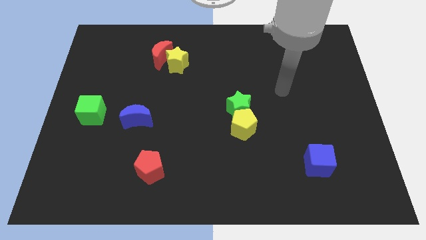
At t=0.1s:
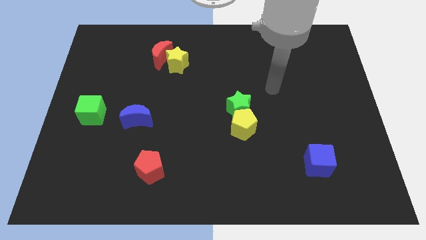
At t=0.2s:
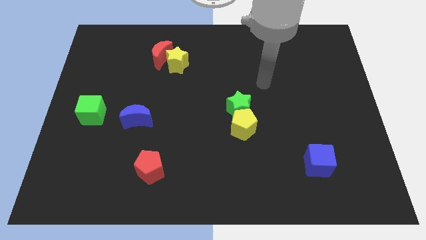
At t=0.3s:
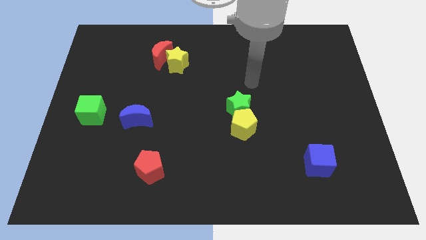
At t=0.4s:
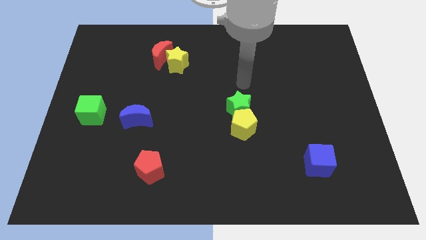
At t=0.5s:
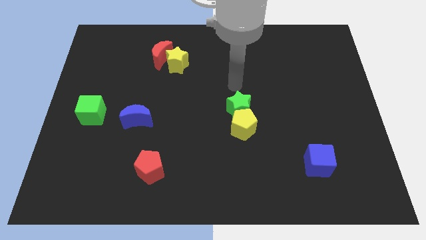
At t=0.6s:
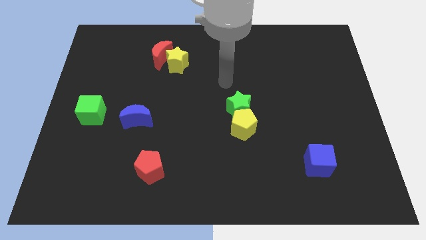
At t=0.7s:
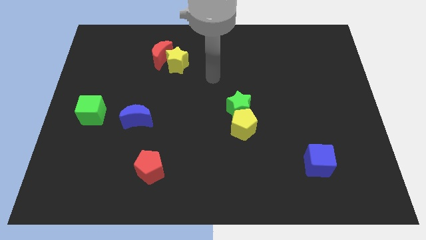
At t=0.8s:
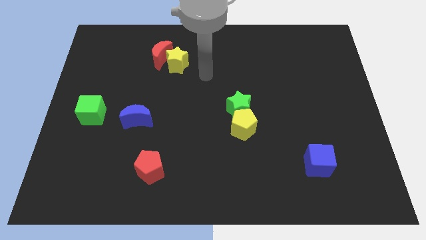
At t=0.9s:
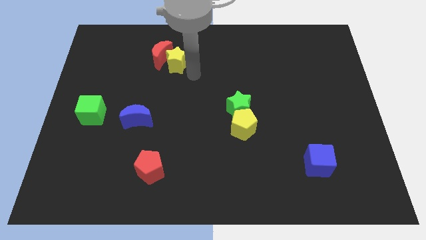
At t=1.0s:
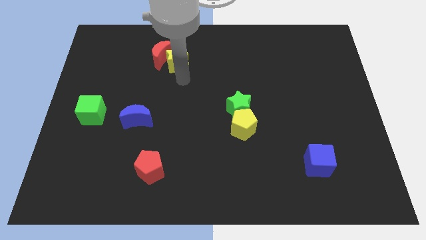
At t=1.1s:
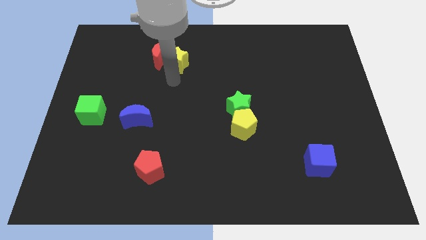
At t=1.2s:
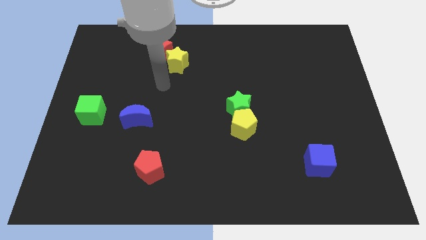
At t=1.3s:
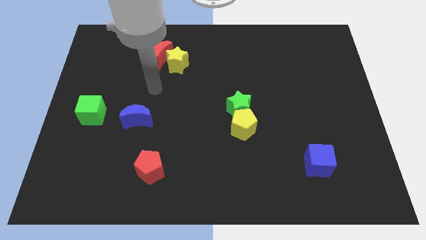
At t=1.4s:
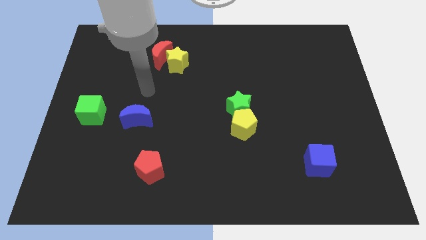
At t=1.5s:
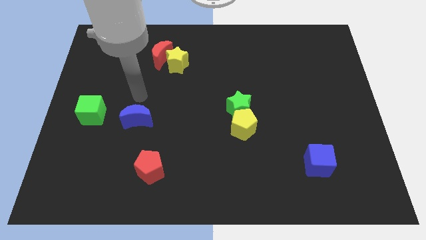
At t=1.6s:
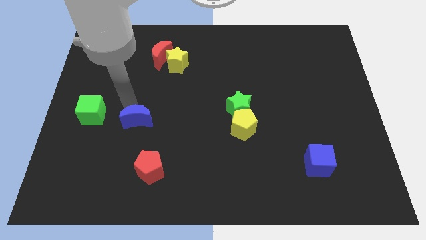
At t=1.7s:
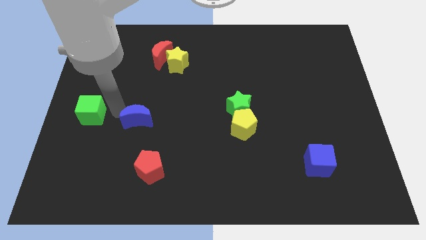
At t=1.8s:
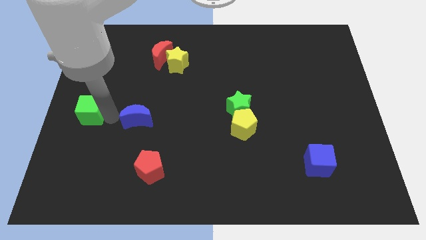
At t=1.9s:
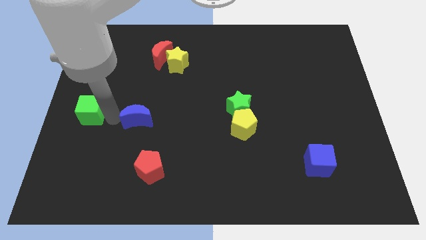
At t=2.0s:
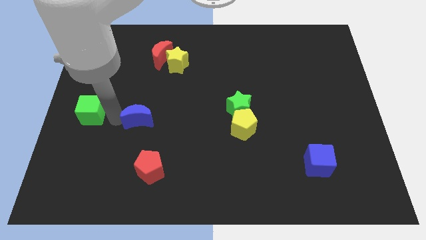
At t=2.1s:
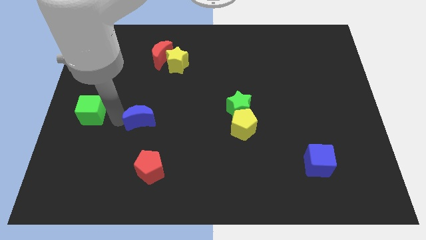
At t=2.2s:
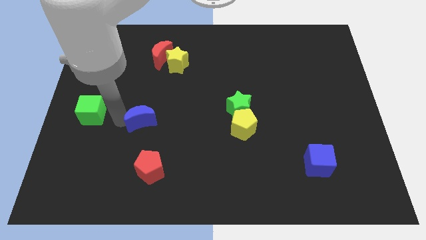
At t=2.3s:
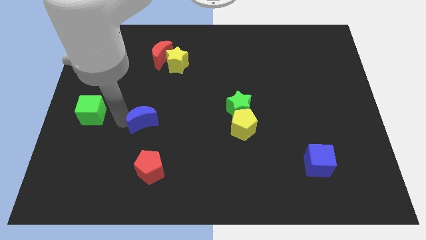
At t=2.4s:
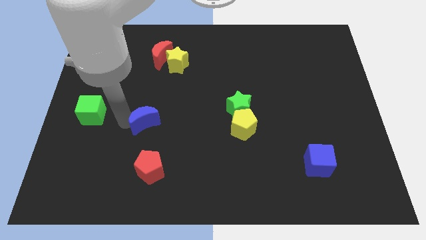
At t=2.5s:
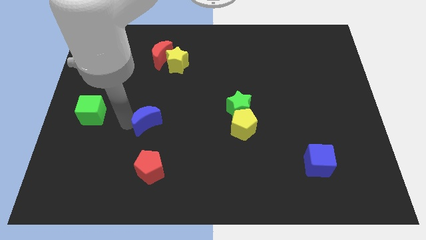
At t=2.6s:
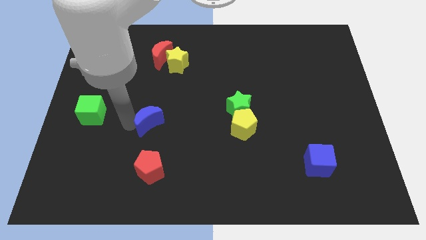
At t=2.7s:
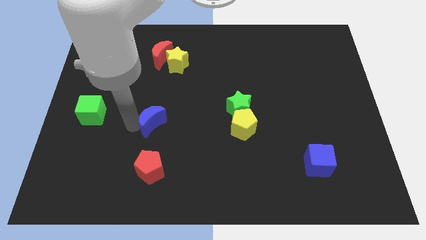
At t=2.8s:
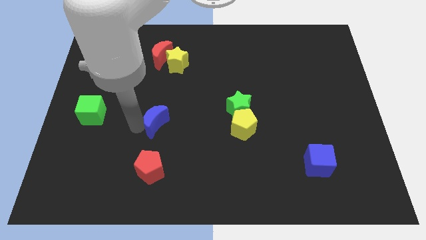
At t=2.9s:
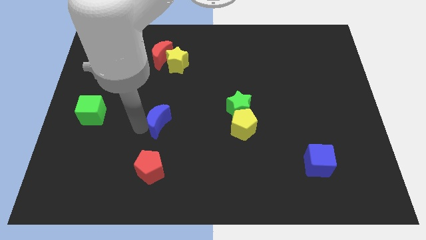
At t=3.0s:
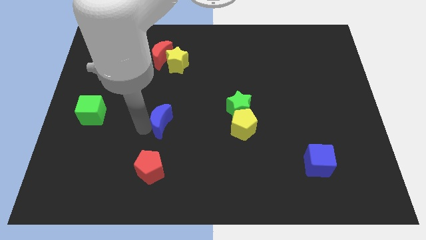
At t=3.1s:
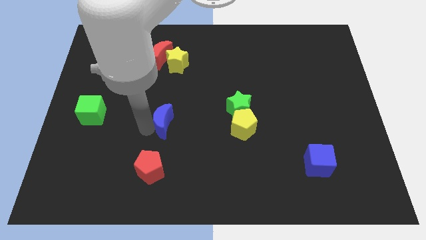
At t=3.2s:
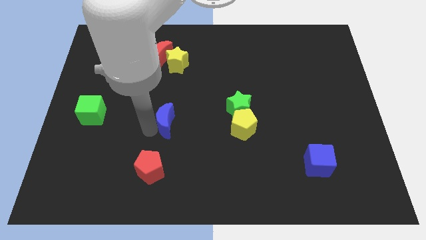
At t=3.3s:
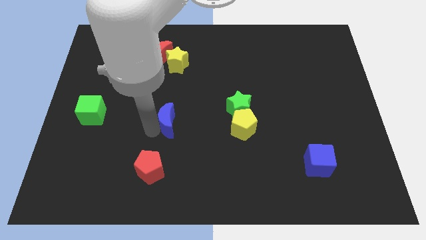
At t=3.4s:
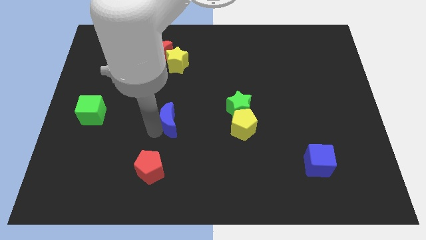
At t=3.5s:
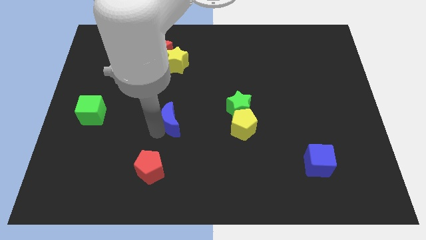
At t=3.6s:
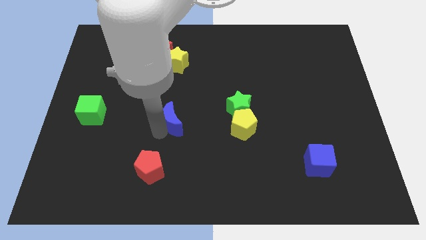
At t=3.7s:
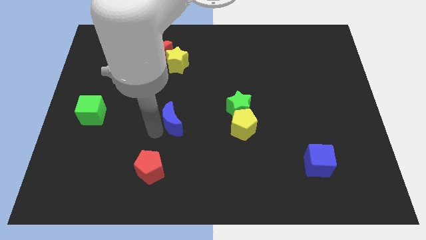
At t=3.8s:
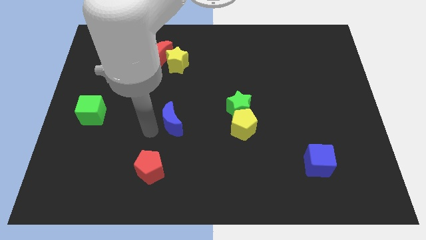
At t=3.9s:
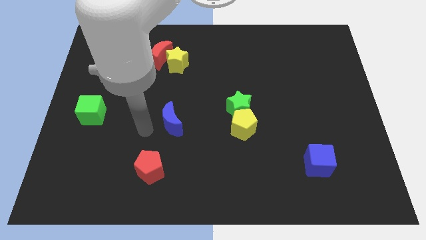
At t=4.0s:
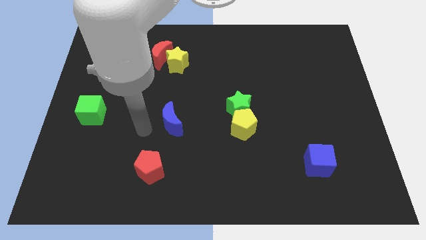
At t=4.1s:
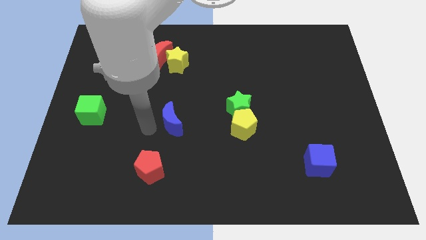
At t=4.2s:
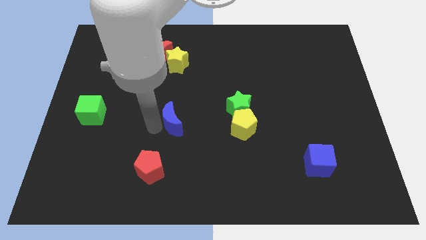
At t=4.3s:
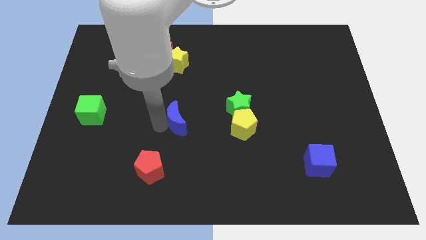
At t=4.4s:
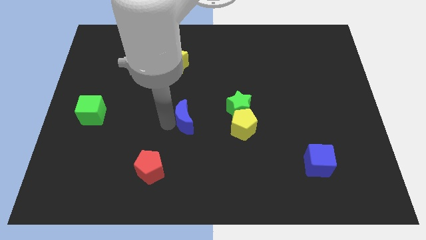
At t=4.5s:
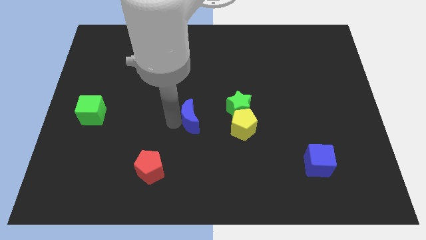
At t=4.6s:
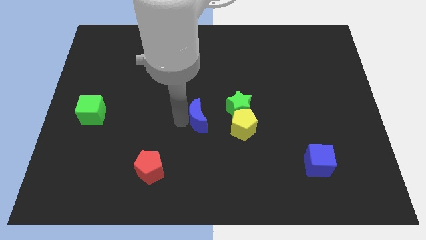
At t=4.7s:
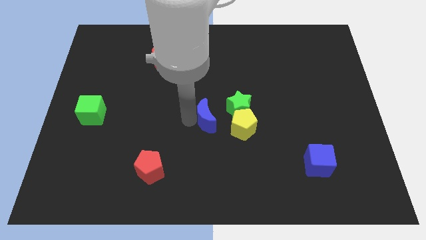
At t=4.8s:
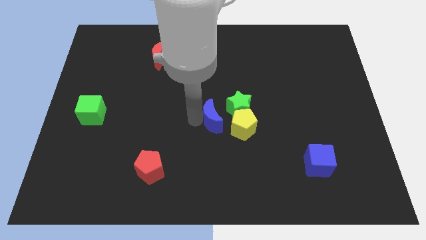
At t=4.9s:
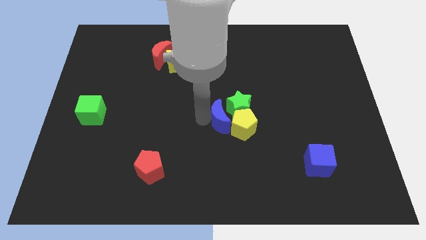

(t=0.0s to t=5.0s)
move the blue moon close to the yellow pentagon

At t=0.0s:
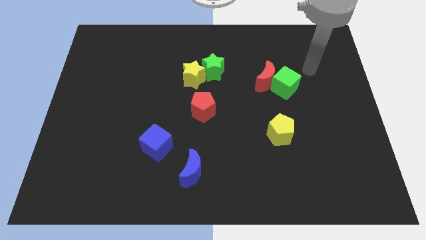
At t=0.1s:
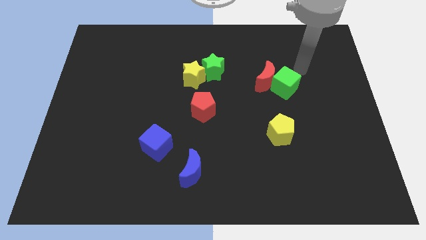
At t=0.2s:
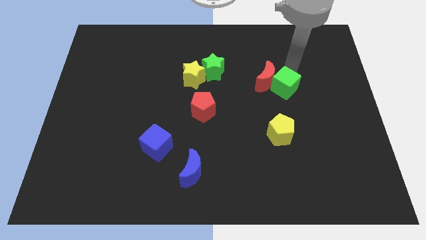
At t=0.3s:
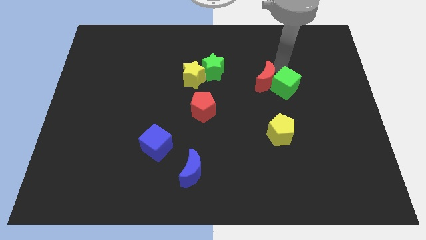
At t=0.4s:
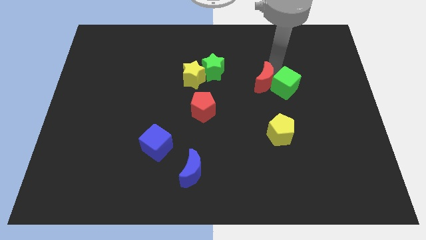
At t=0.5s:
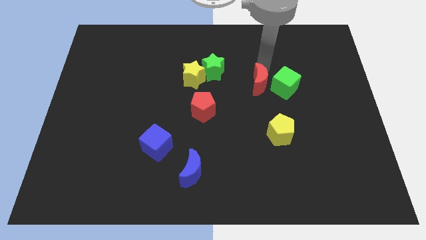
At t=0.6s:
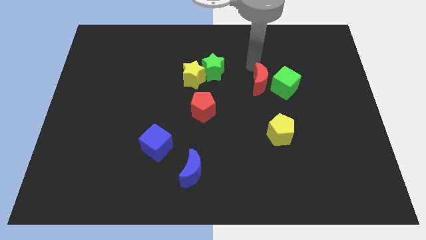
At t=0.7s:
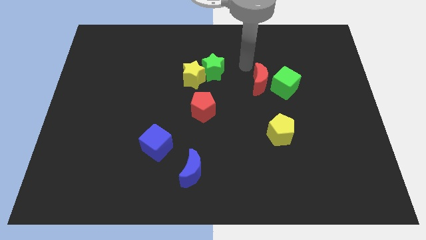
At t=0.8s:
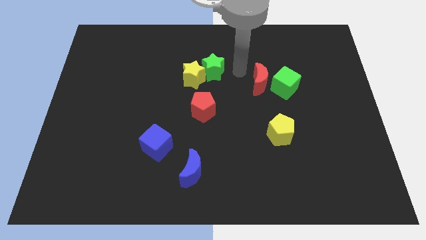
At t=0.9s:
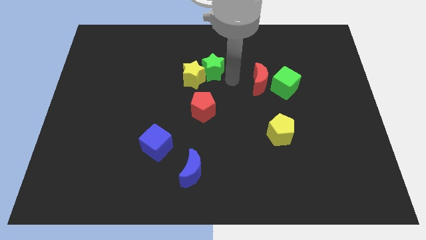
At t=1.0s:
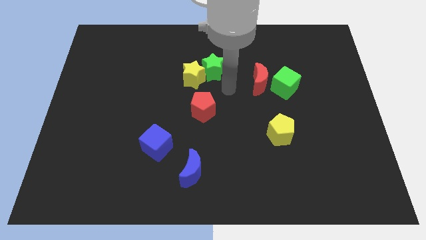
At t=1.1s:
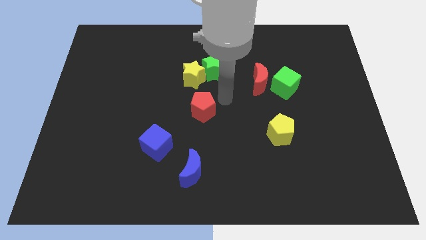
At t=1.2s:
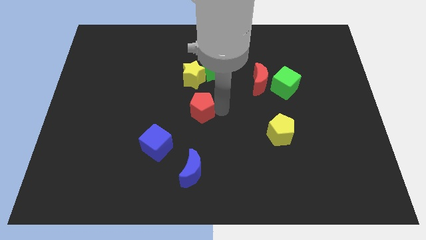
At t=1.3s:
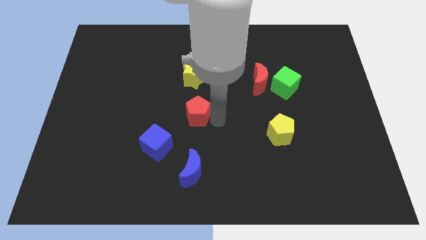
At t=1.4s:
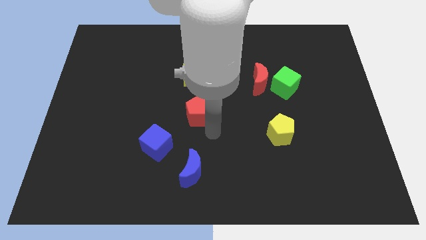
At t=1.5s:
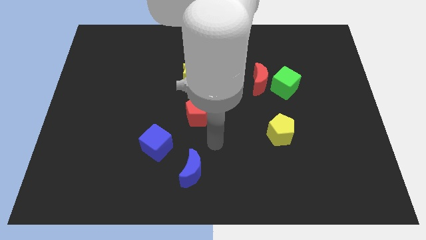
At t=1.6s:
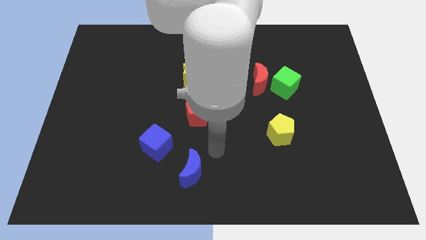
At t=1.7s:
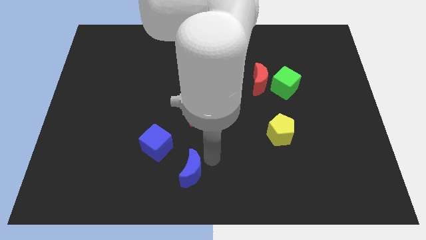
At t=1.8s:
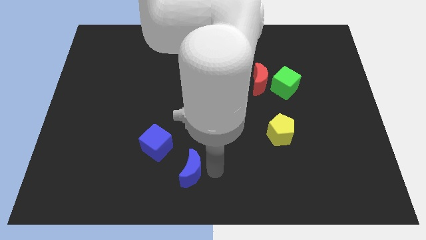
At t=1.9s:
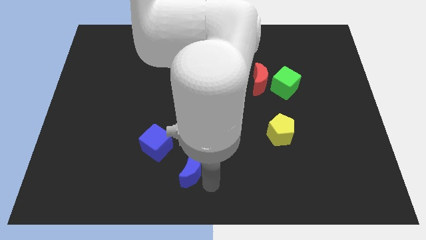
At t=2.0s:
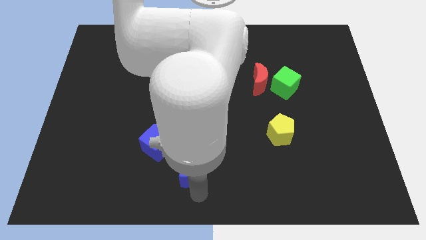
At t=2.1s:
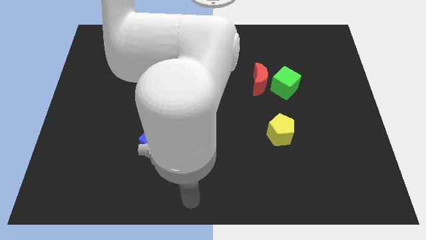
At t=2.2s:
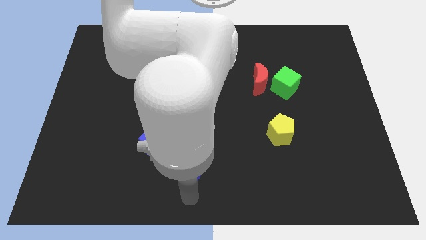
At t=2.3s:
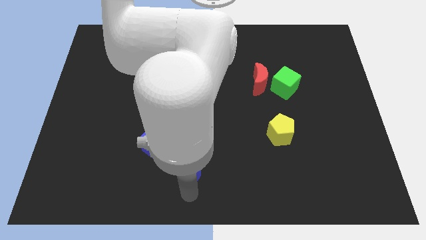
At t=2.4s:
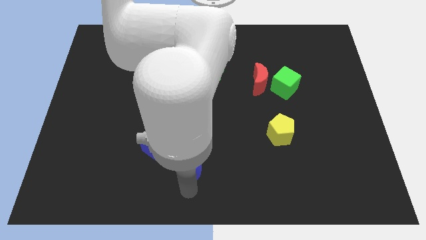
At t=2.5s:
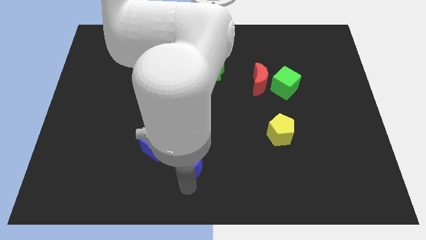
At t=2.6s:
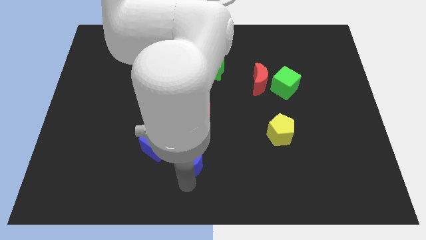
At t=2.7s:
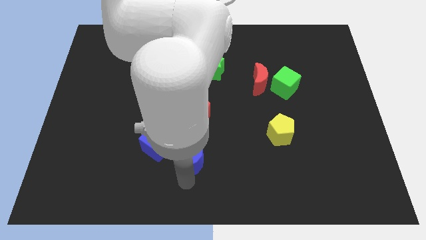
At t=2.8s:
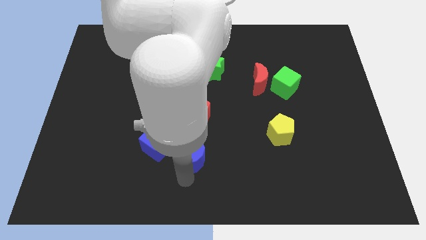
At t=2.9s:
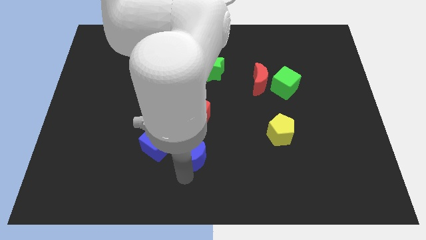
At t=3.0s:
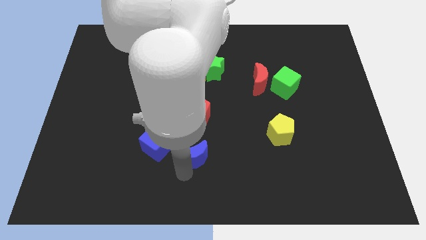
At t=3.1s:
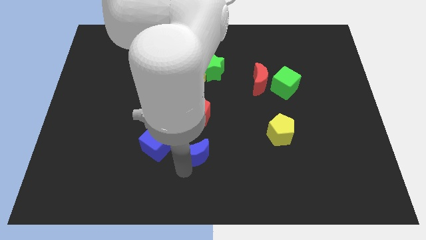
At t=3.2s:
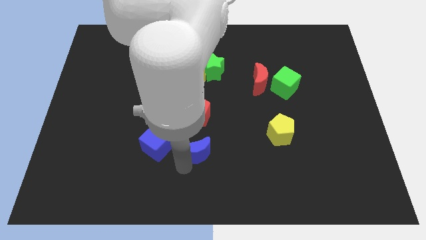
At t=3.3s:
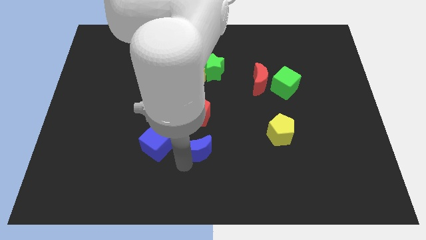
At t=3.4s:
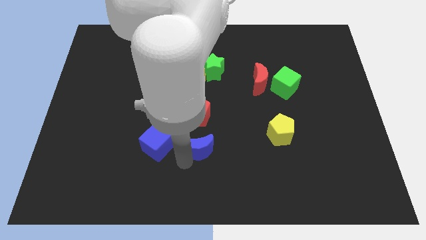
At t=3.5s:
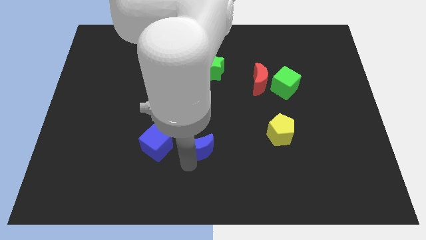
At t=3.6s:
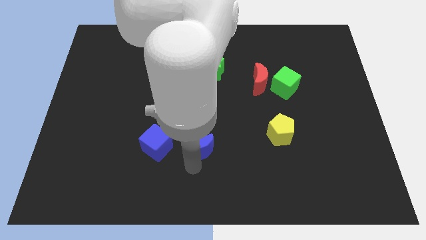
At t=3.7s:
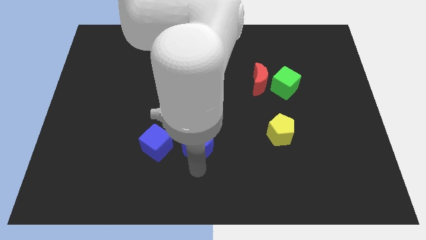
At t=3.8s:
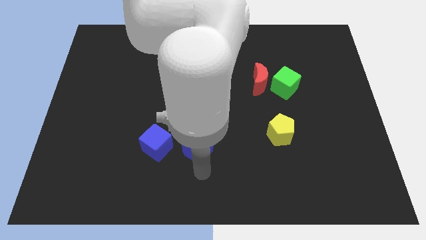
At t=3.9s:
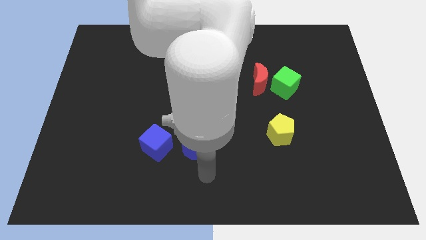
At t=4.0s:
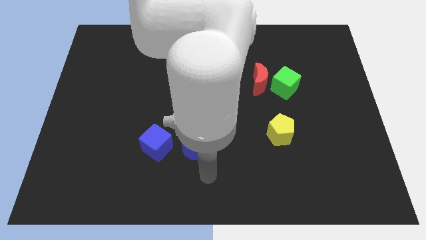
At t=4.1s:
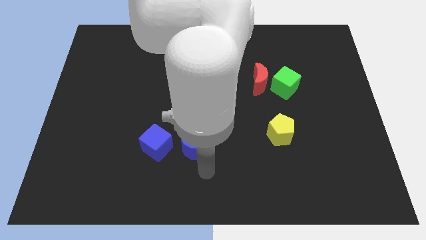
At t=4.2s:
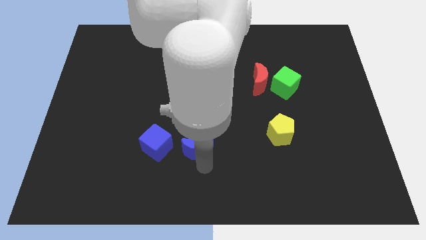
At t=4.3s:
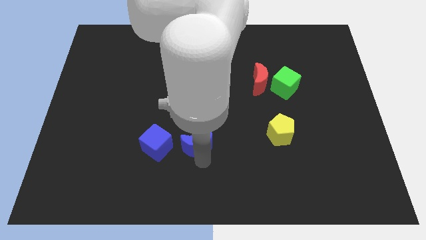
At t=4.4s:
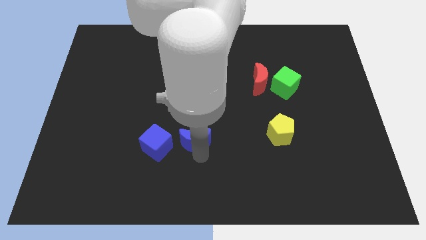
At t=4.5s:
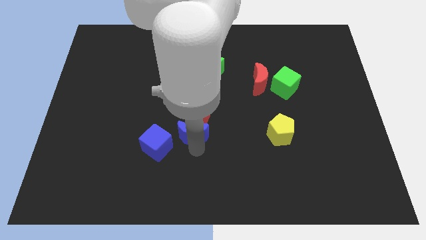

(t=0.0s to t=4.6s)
put the blue moon next to the red pentagon
